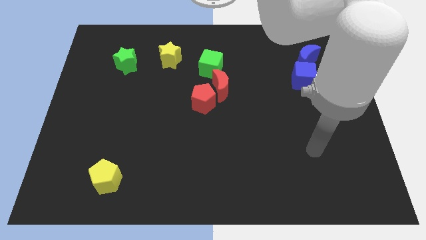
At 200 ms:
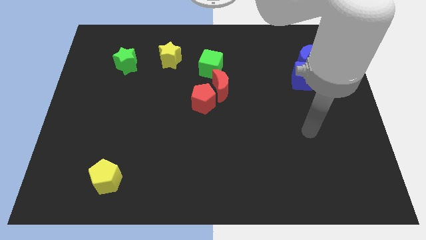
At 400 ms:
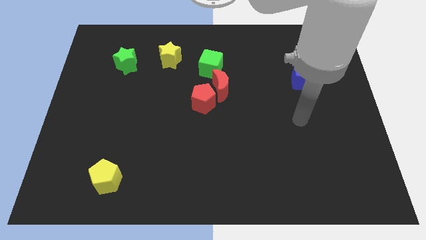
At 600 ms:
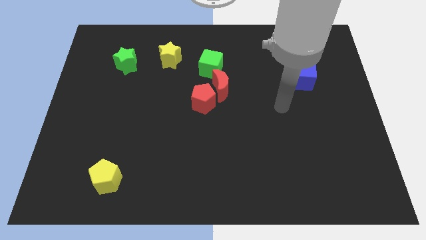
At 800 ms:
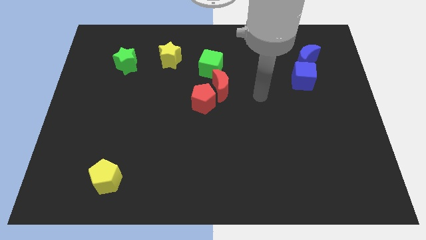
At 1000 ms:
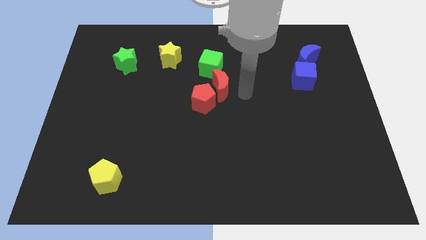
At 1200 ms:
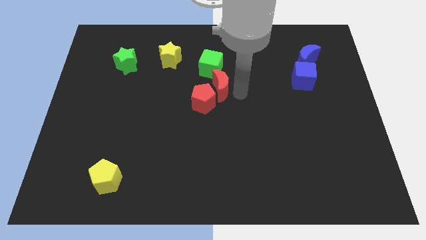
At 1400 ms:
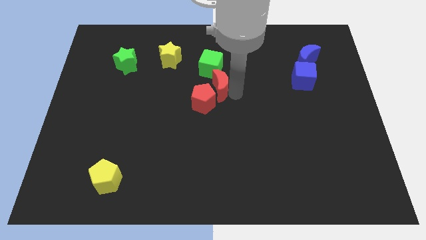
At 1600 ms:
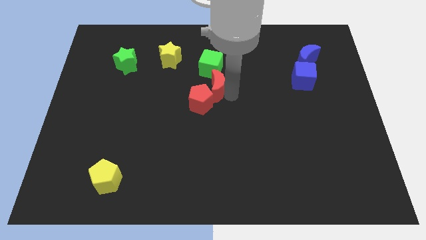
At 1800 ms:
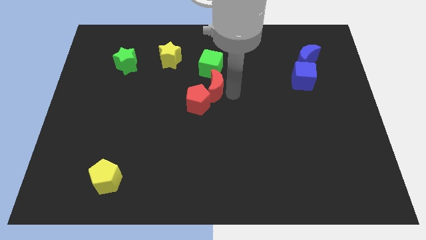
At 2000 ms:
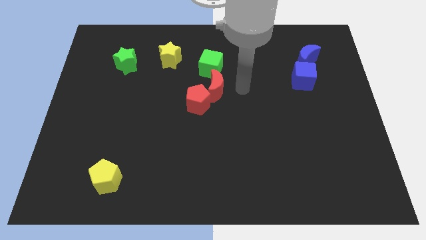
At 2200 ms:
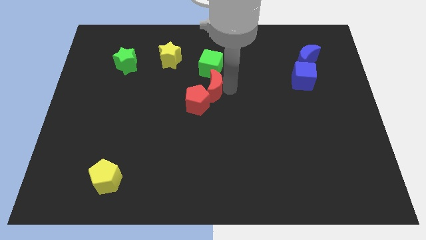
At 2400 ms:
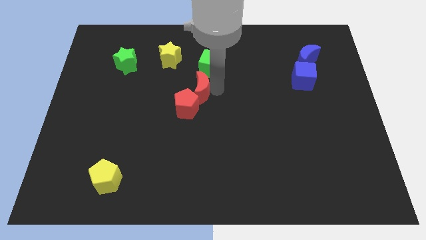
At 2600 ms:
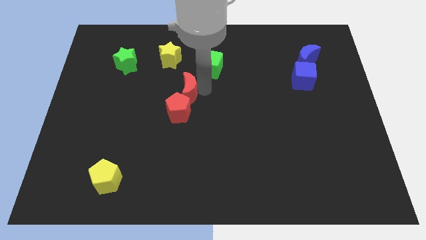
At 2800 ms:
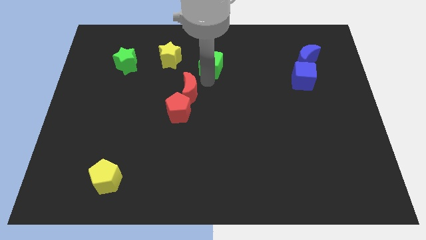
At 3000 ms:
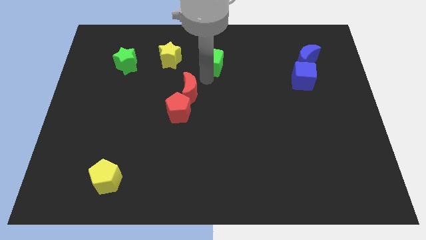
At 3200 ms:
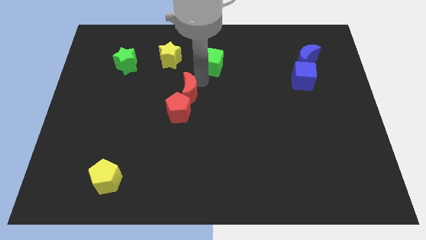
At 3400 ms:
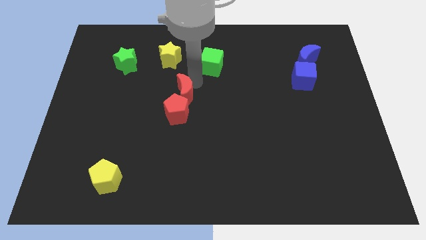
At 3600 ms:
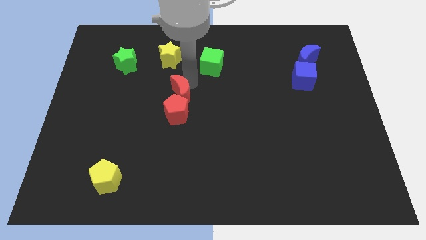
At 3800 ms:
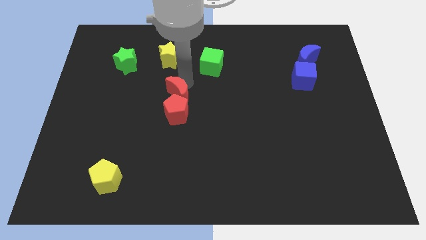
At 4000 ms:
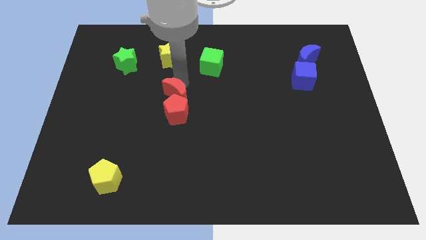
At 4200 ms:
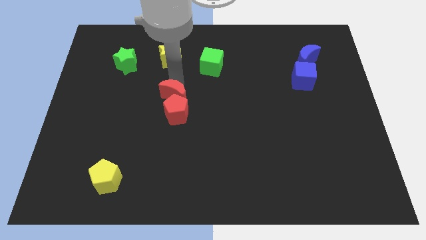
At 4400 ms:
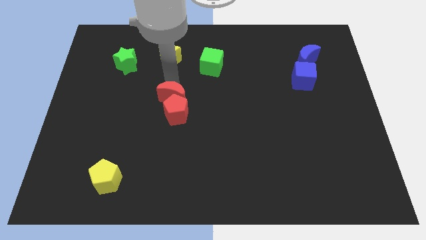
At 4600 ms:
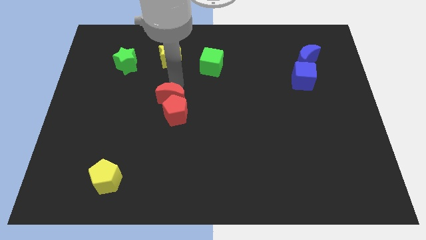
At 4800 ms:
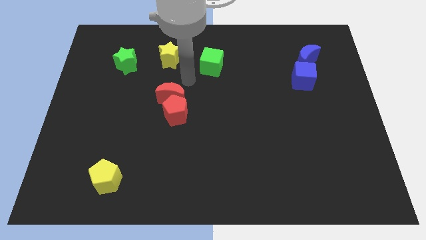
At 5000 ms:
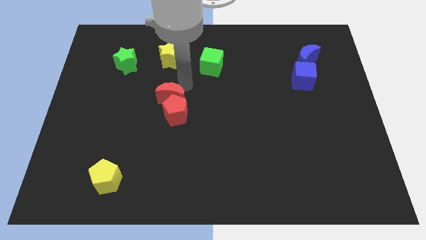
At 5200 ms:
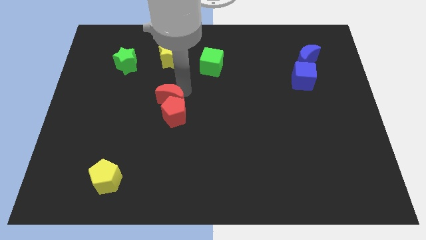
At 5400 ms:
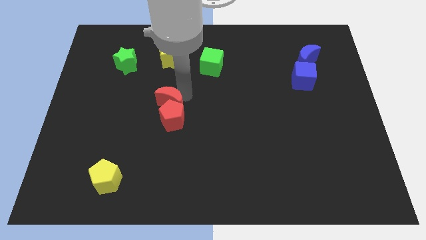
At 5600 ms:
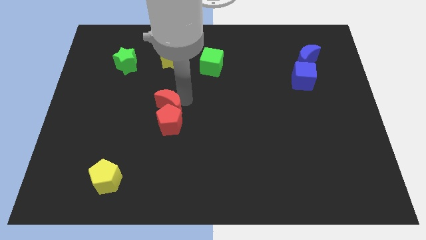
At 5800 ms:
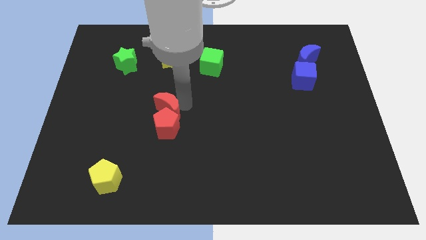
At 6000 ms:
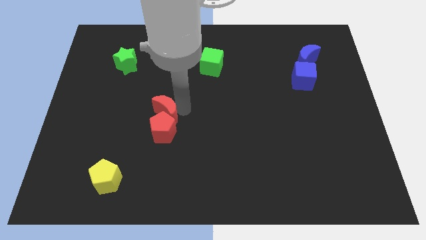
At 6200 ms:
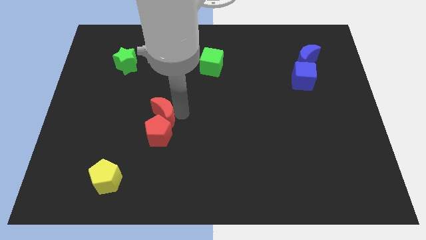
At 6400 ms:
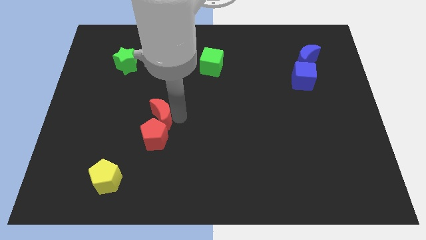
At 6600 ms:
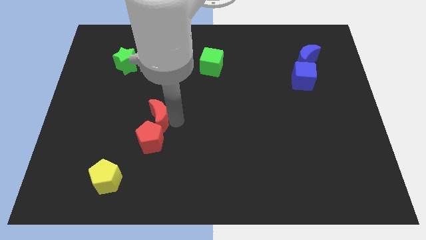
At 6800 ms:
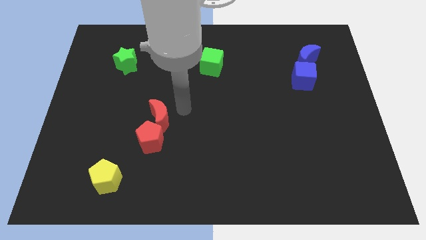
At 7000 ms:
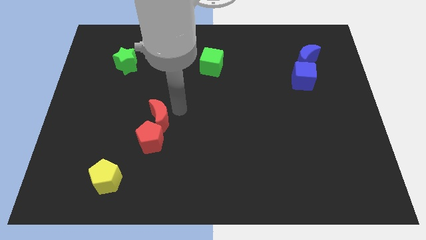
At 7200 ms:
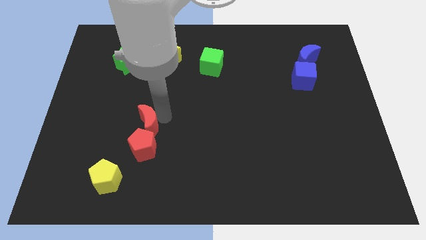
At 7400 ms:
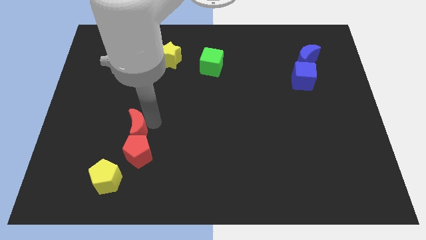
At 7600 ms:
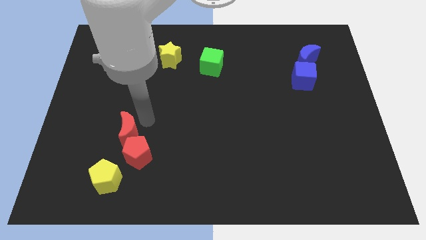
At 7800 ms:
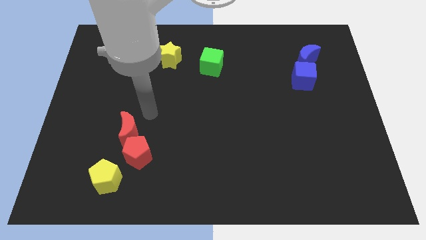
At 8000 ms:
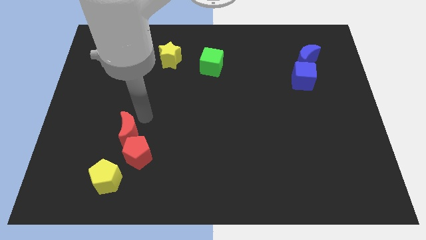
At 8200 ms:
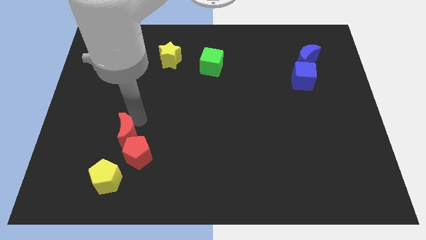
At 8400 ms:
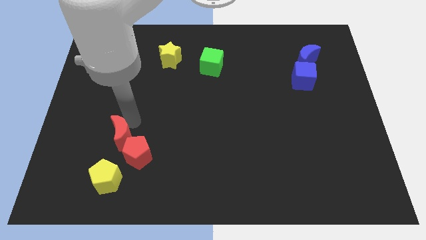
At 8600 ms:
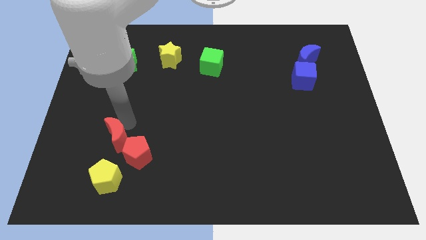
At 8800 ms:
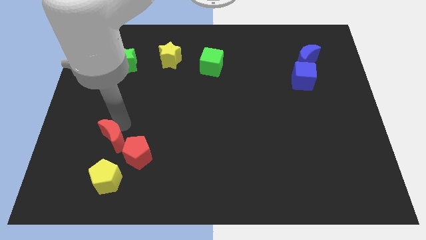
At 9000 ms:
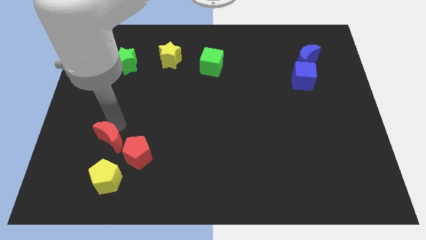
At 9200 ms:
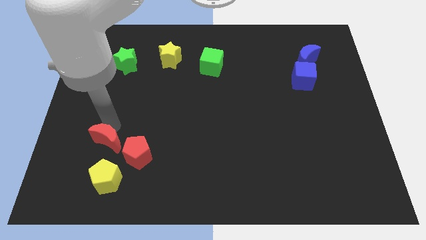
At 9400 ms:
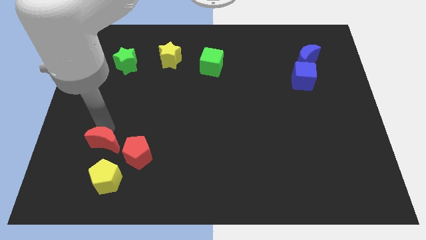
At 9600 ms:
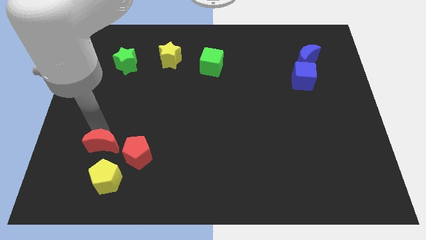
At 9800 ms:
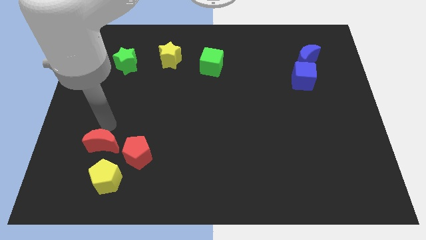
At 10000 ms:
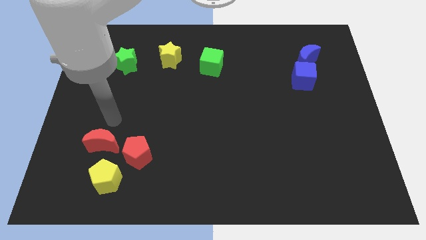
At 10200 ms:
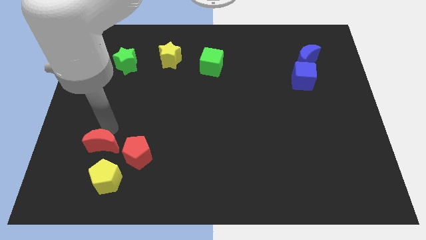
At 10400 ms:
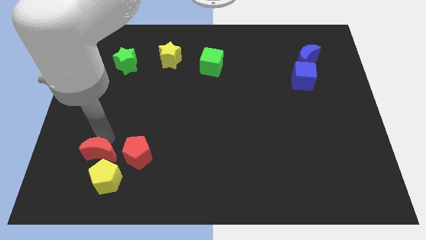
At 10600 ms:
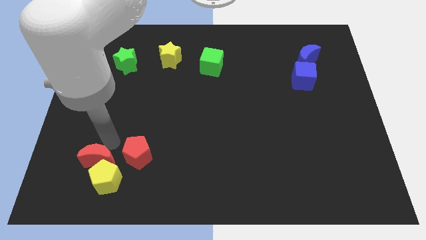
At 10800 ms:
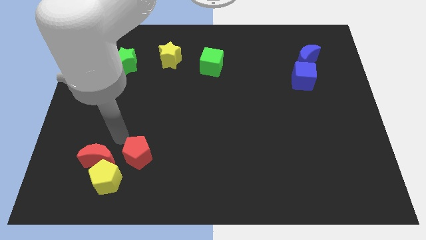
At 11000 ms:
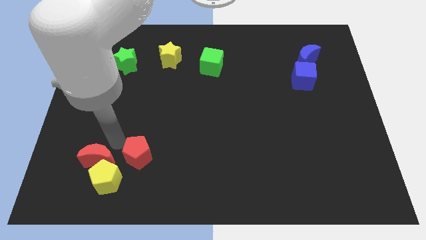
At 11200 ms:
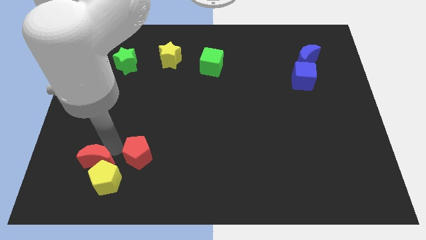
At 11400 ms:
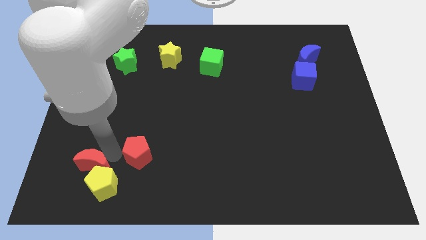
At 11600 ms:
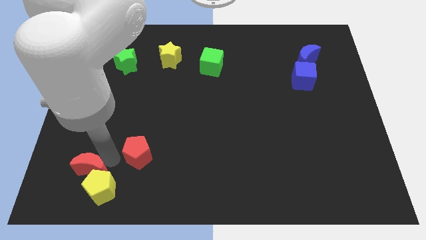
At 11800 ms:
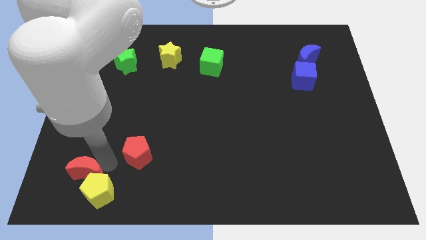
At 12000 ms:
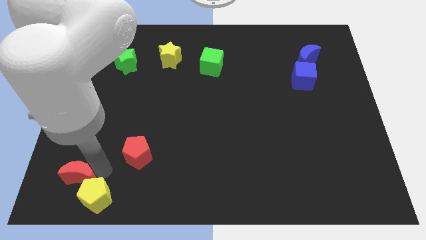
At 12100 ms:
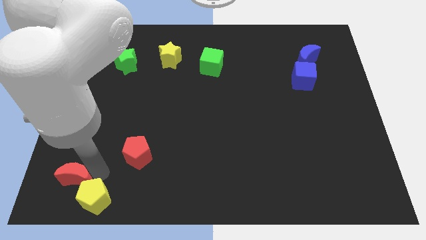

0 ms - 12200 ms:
put the red moon to the bottom left of the board

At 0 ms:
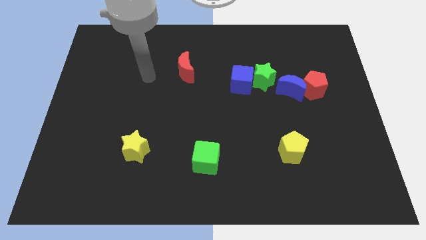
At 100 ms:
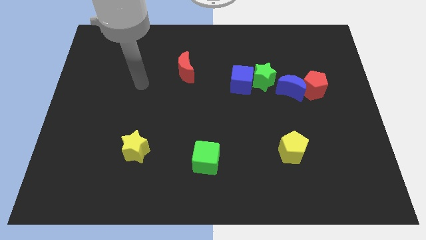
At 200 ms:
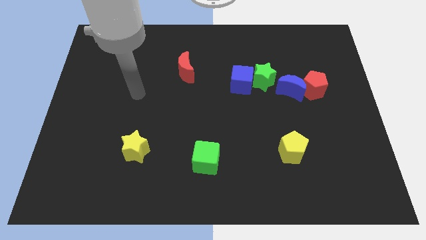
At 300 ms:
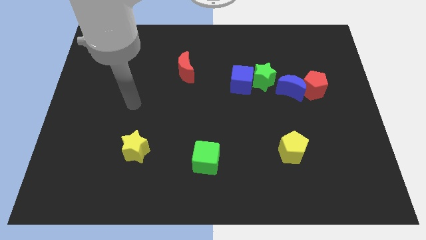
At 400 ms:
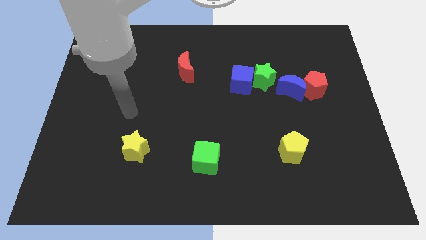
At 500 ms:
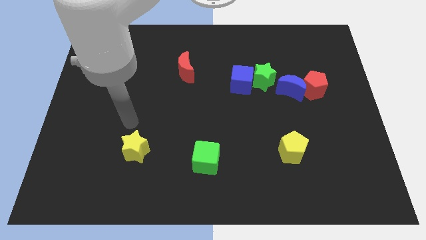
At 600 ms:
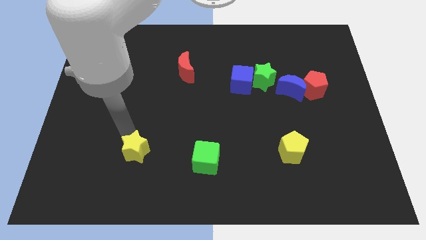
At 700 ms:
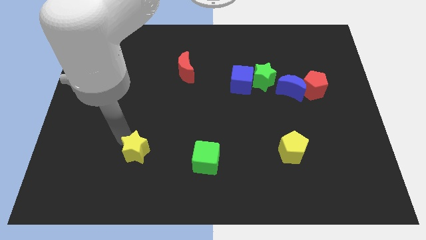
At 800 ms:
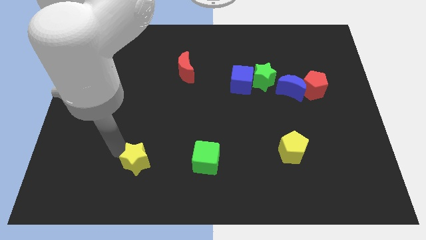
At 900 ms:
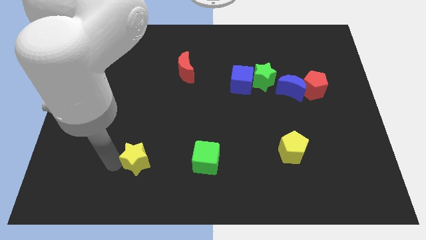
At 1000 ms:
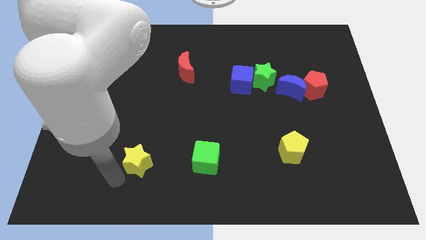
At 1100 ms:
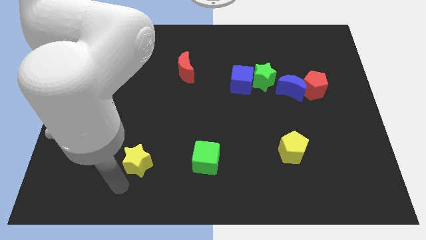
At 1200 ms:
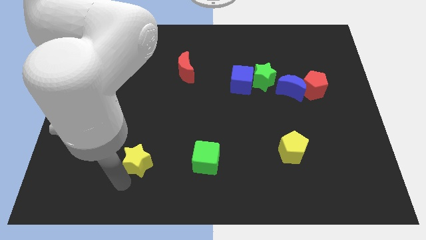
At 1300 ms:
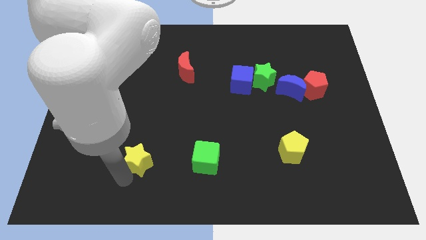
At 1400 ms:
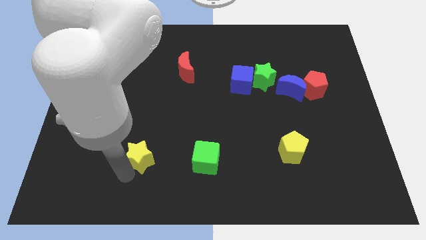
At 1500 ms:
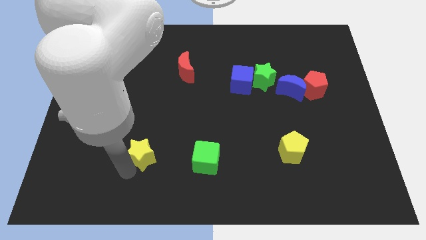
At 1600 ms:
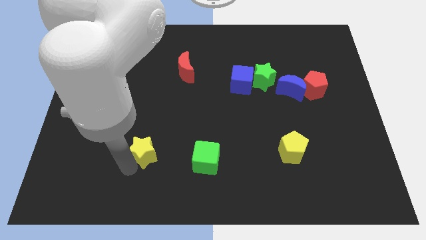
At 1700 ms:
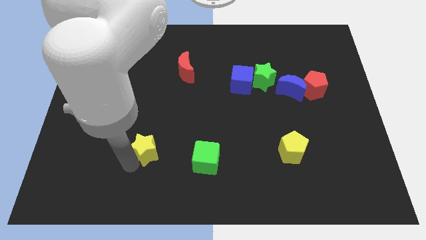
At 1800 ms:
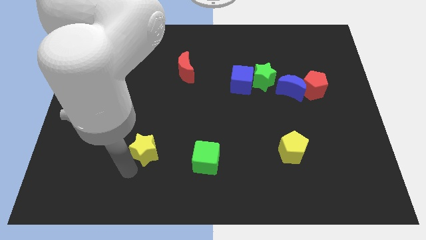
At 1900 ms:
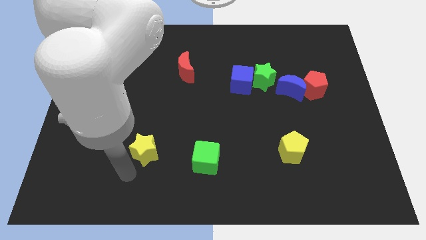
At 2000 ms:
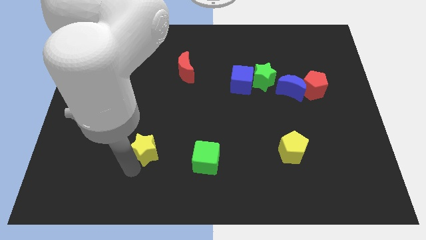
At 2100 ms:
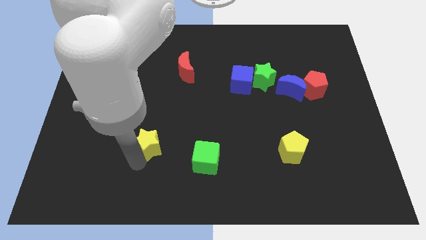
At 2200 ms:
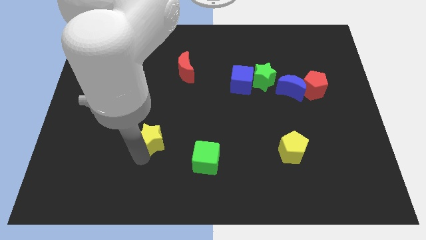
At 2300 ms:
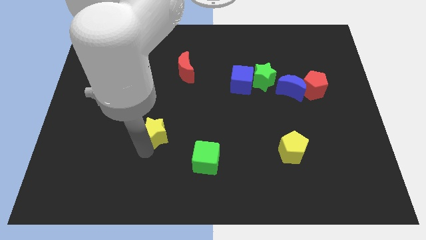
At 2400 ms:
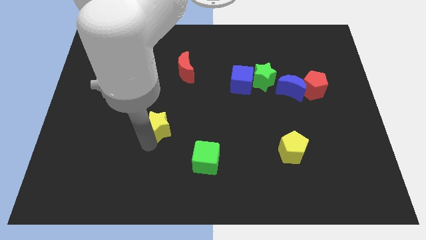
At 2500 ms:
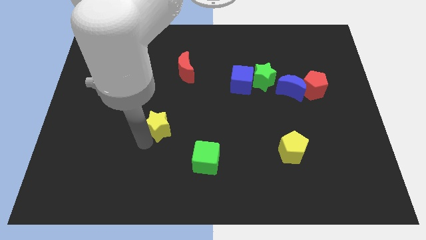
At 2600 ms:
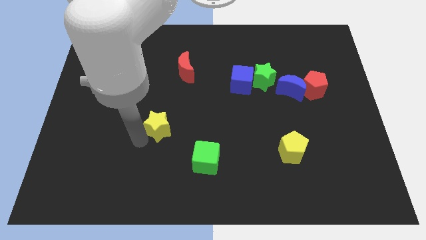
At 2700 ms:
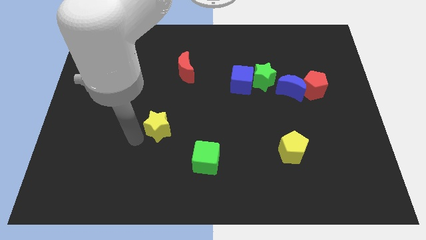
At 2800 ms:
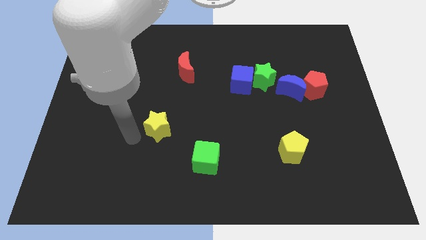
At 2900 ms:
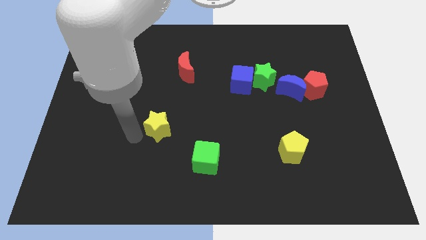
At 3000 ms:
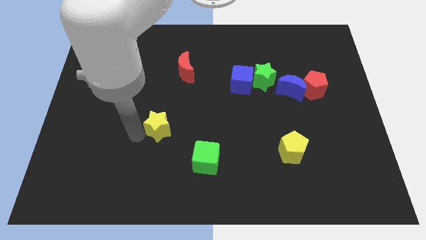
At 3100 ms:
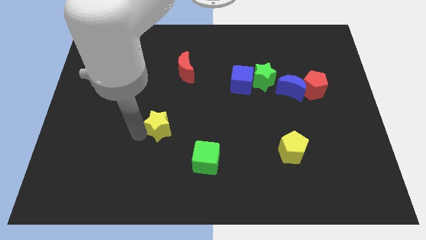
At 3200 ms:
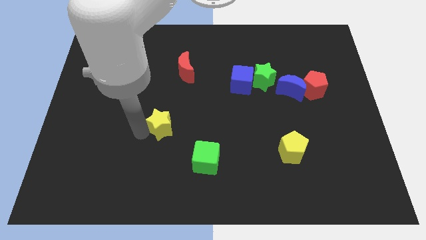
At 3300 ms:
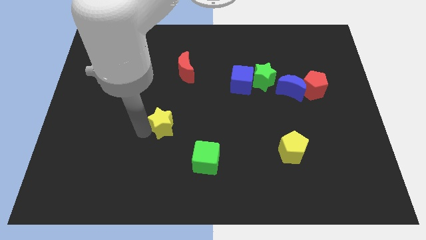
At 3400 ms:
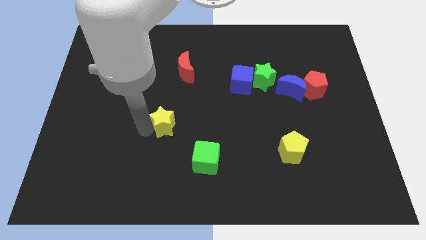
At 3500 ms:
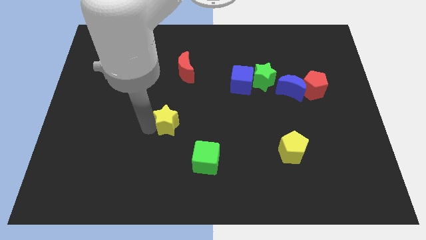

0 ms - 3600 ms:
slide the yellow star to the center
